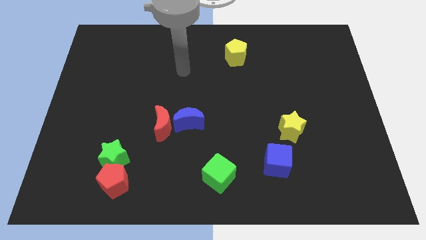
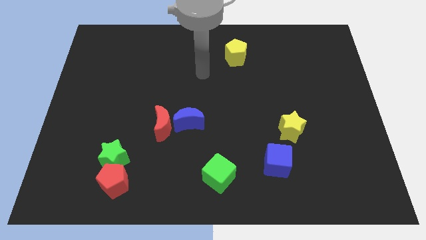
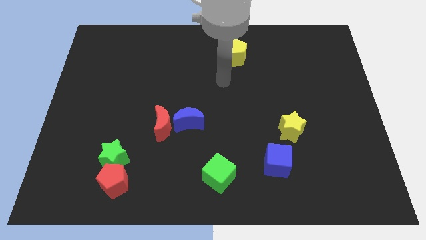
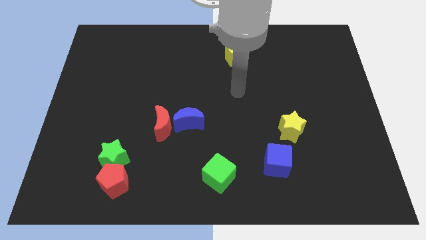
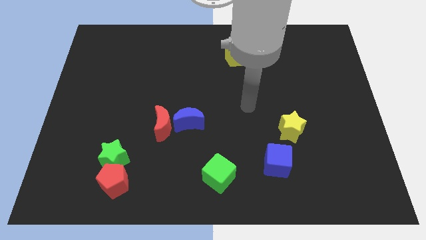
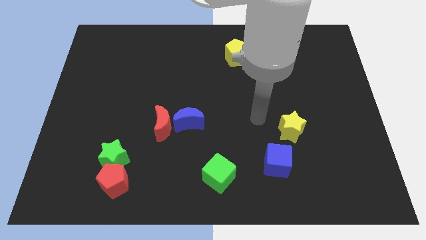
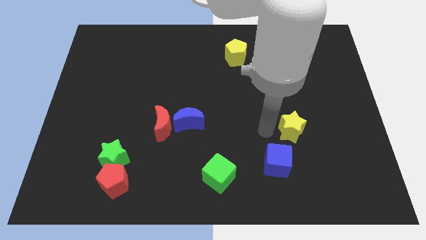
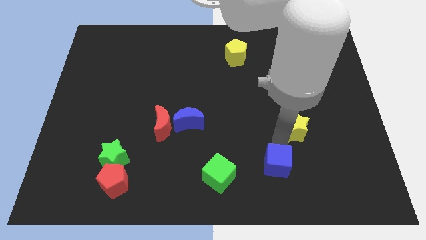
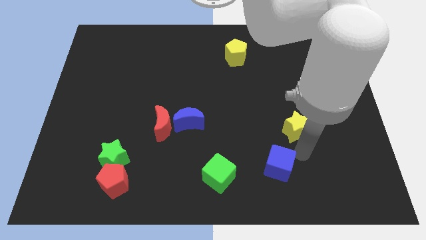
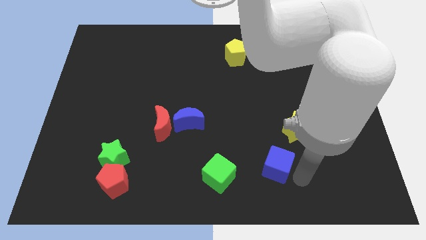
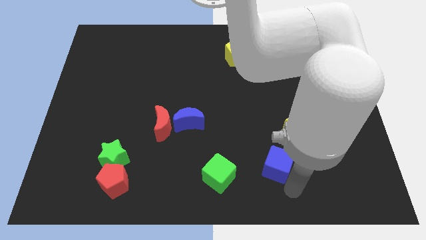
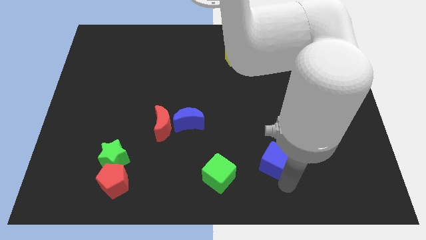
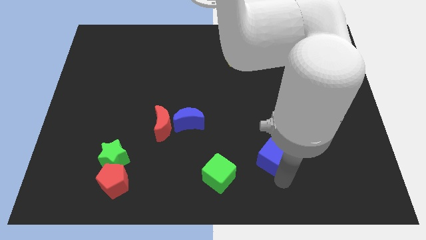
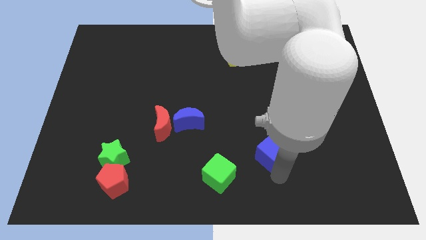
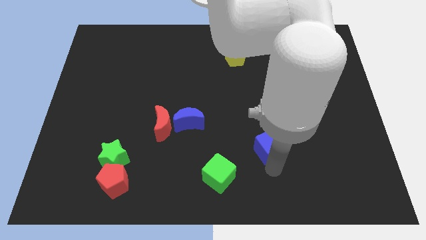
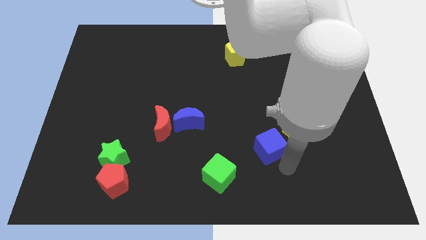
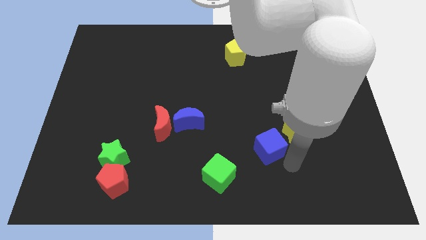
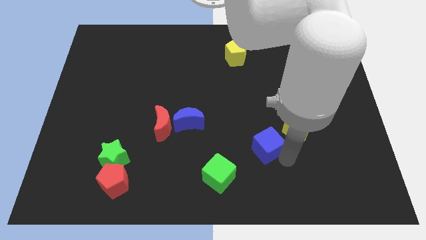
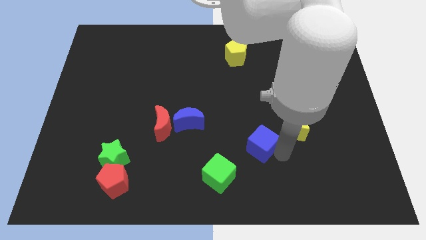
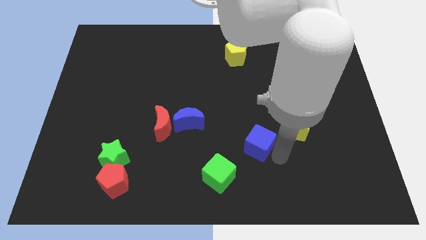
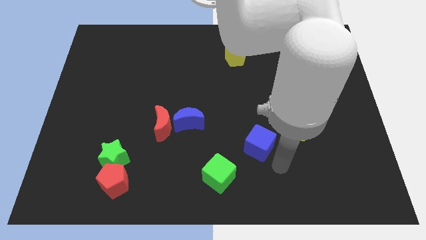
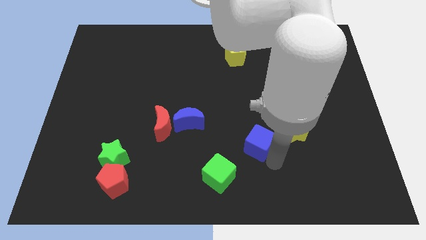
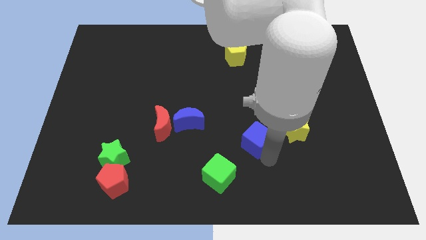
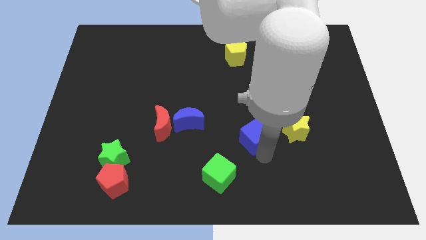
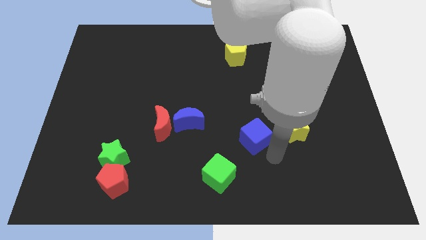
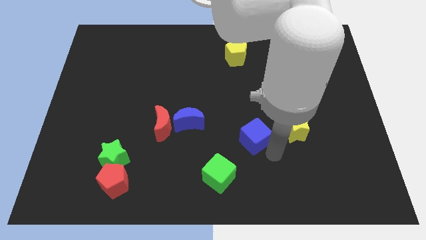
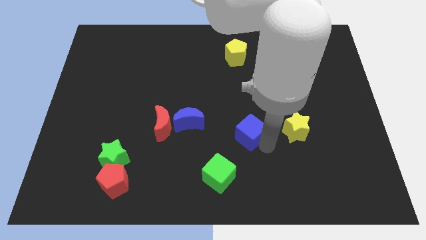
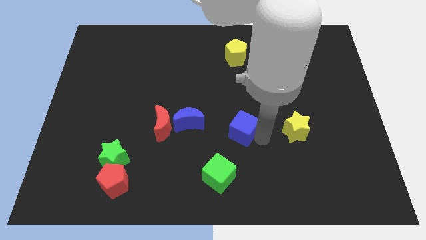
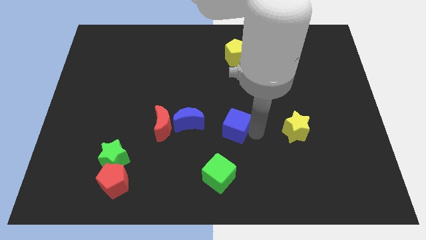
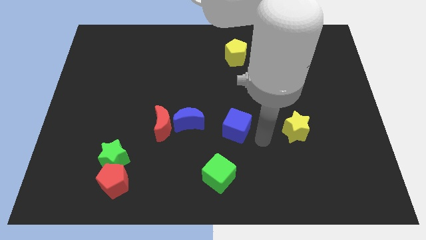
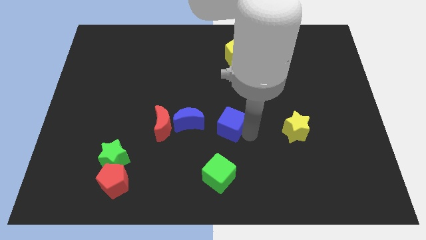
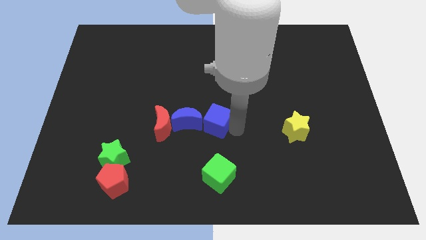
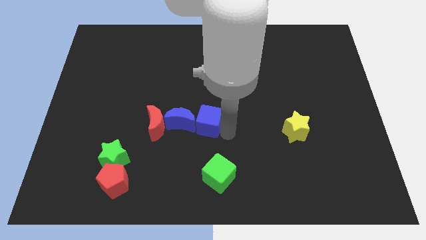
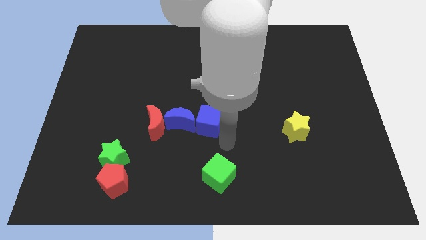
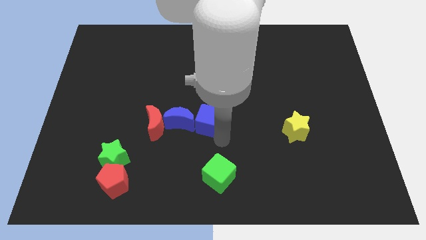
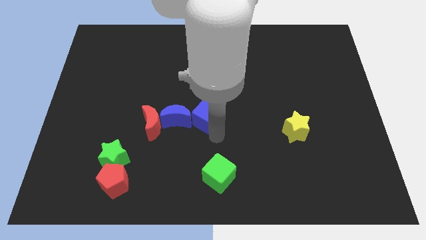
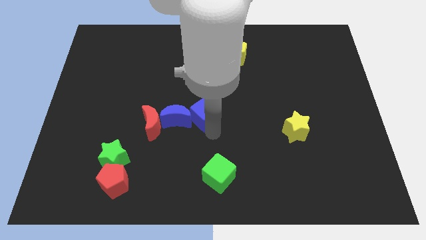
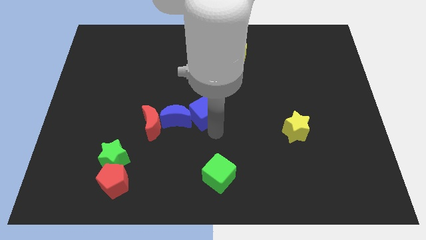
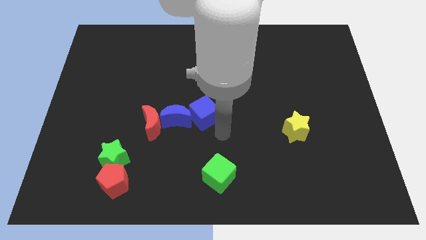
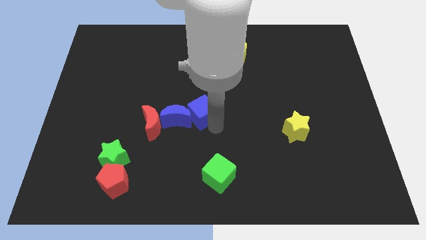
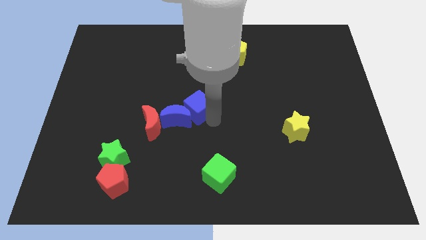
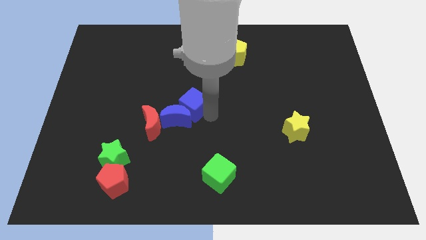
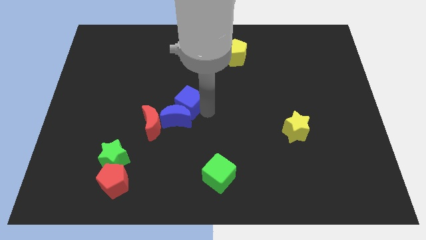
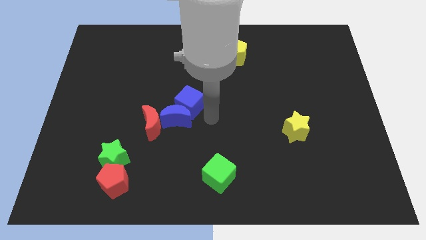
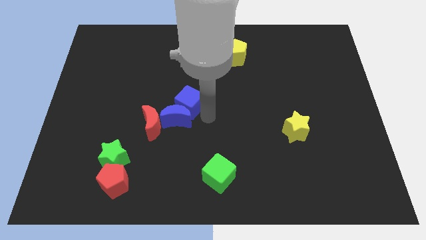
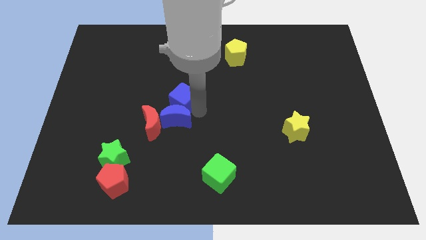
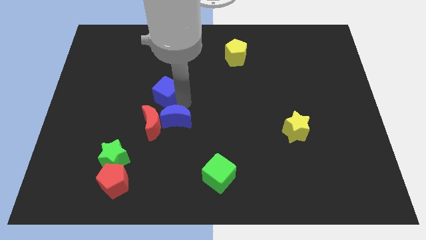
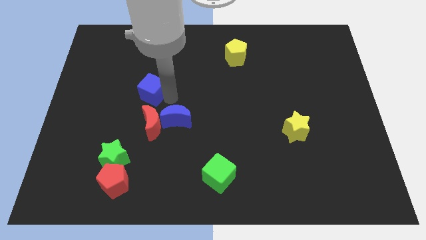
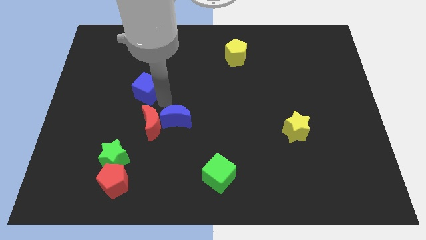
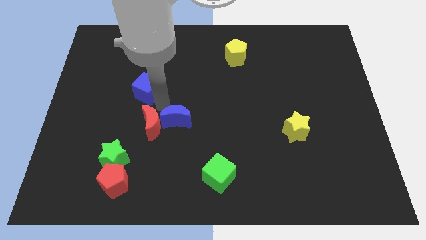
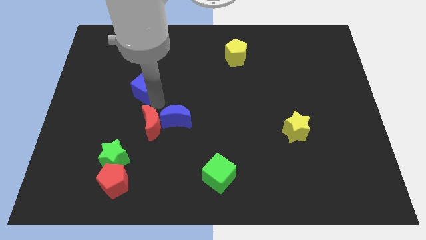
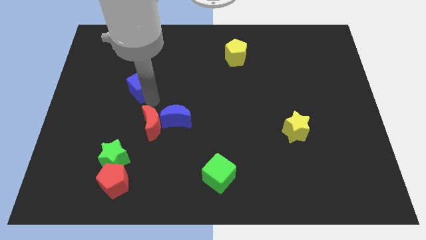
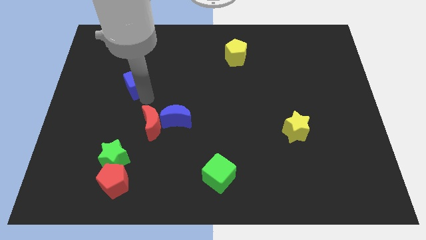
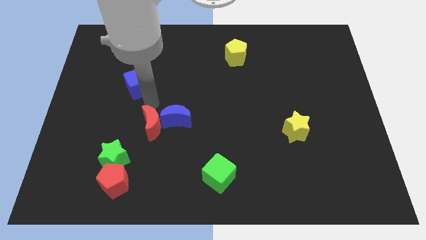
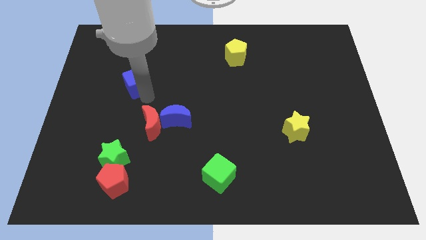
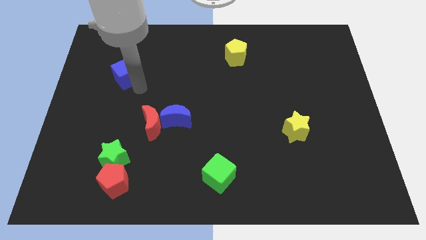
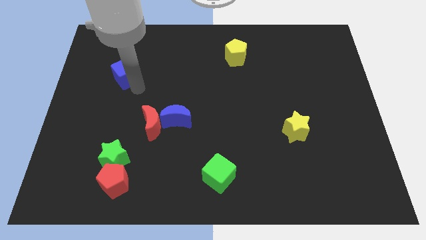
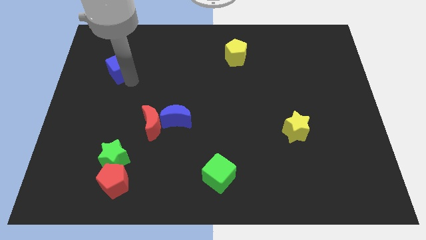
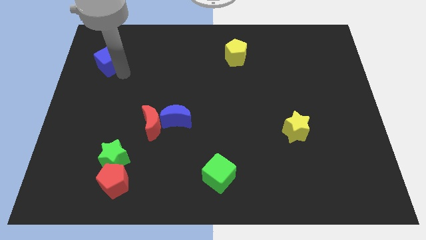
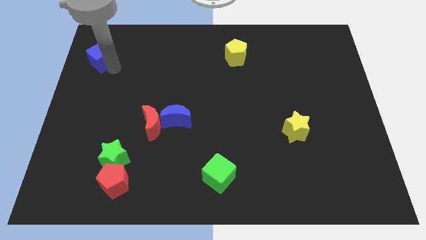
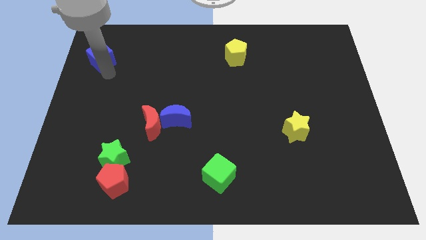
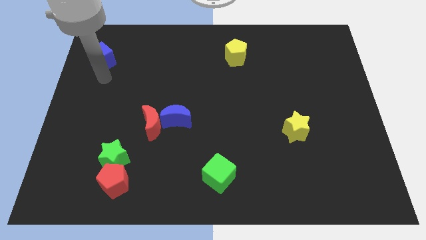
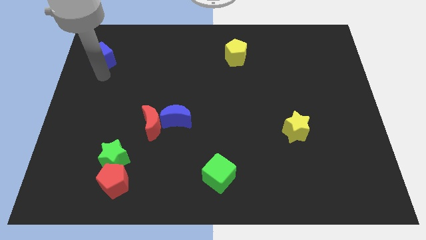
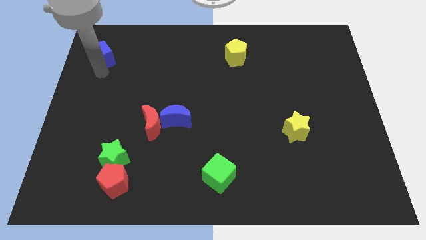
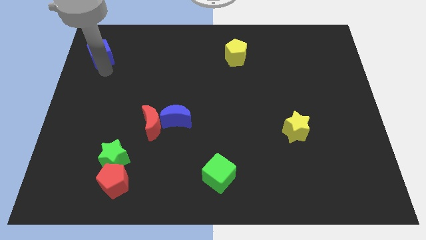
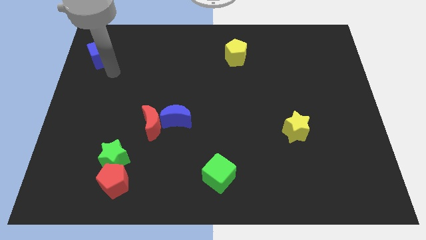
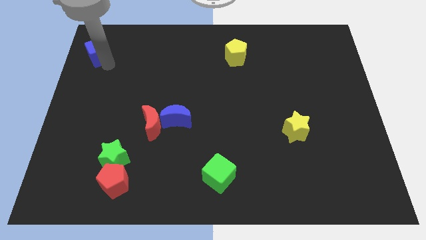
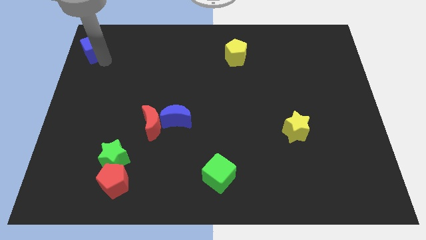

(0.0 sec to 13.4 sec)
put the blue cube to the top left corner
